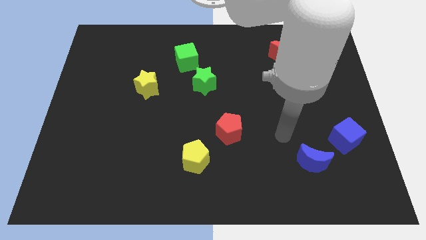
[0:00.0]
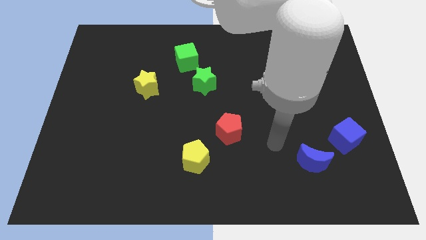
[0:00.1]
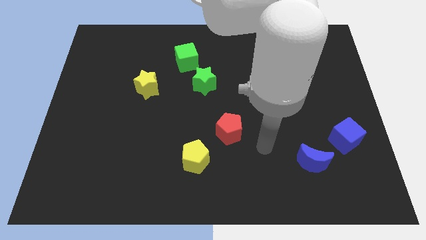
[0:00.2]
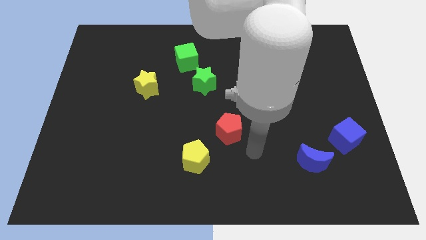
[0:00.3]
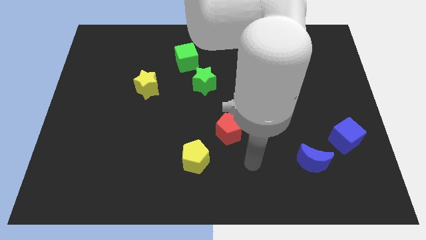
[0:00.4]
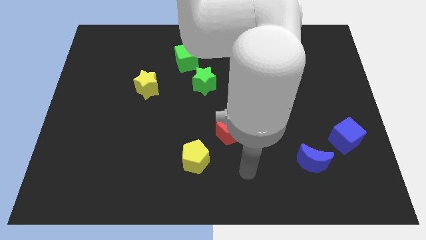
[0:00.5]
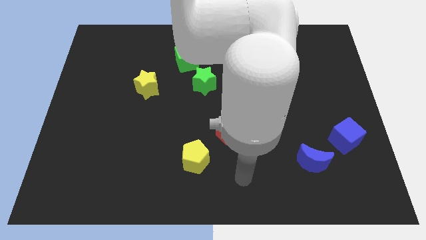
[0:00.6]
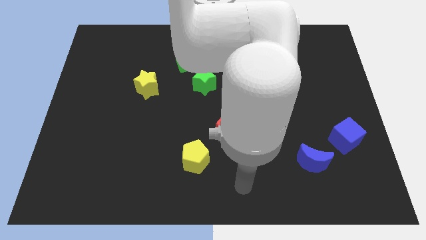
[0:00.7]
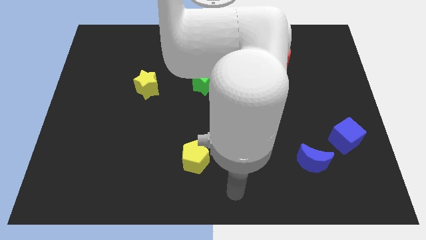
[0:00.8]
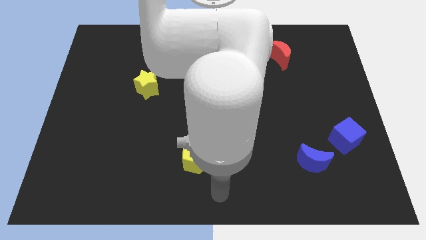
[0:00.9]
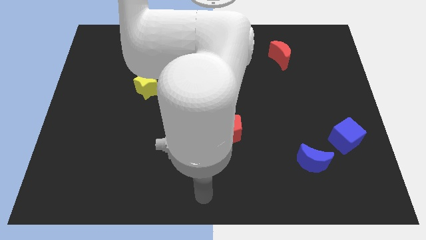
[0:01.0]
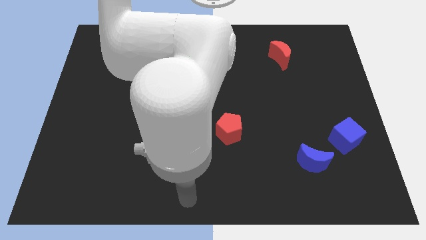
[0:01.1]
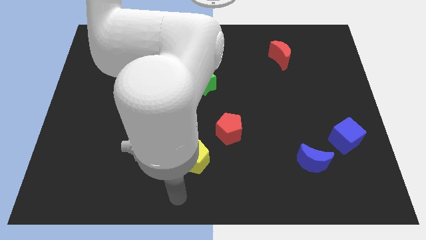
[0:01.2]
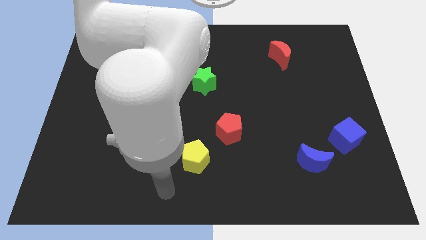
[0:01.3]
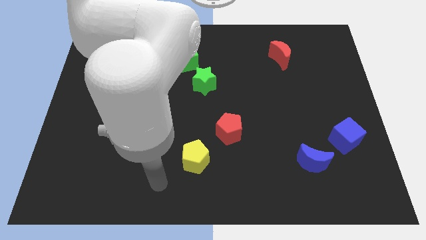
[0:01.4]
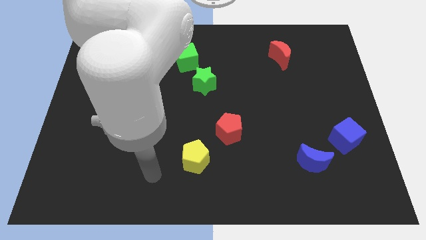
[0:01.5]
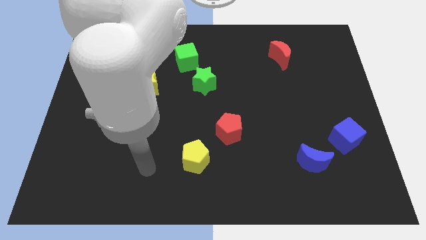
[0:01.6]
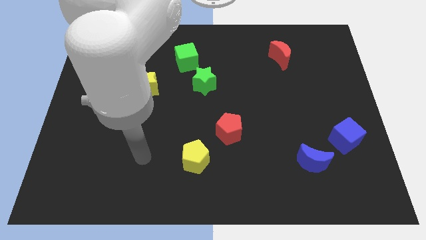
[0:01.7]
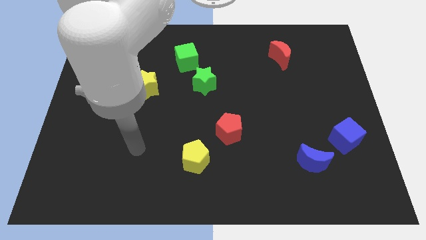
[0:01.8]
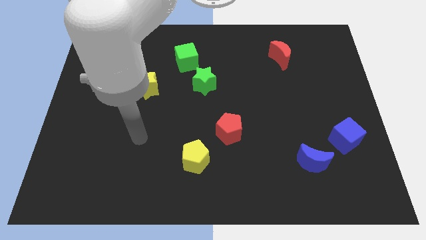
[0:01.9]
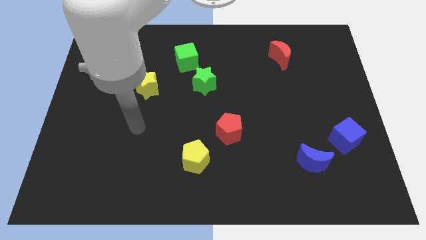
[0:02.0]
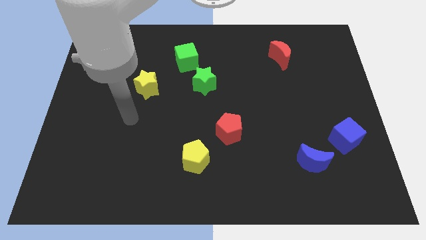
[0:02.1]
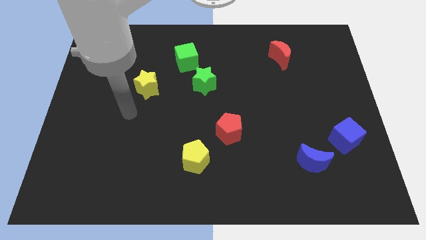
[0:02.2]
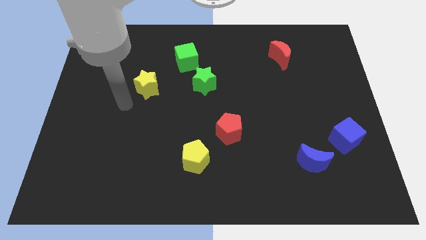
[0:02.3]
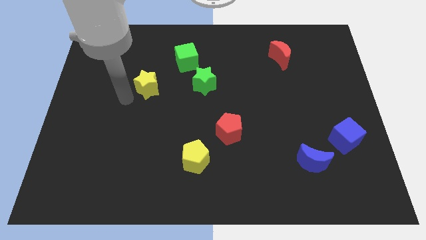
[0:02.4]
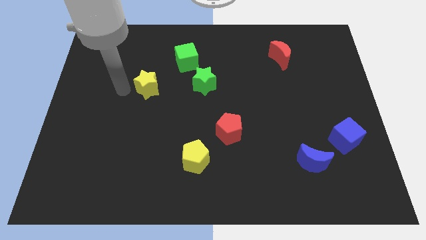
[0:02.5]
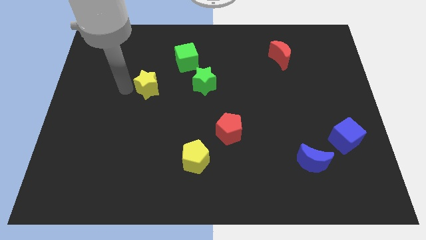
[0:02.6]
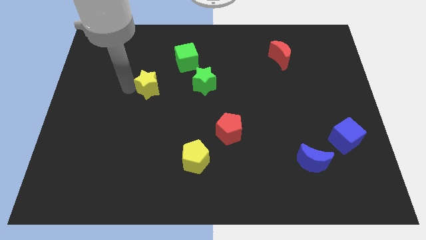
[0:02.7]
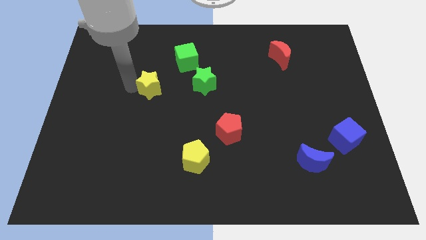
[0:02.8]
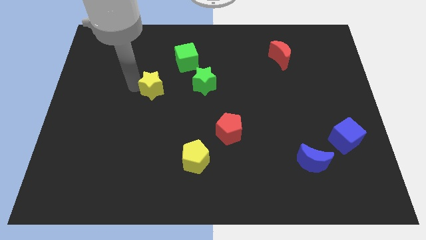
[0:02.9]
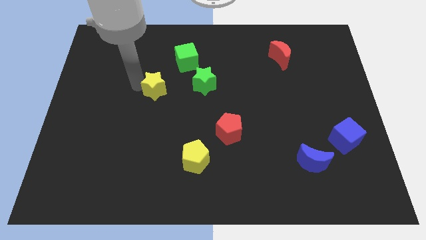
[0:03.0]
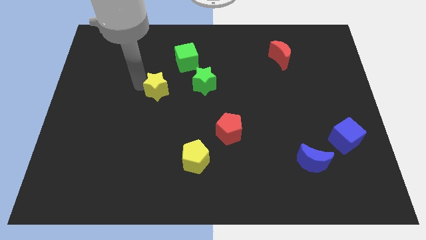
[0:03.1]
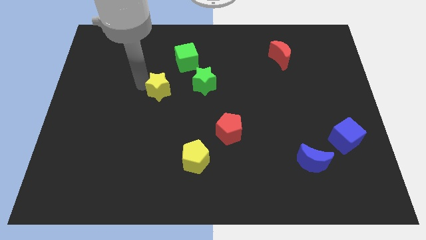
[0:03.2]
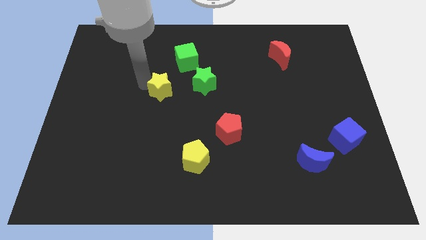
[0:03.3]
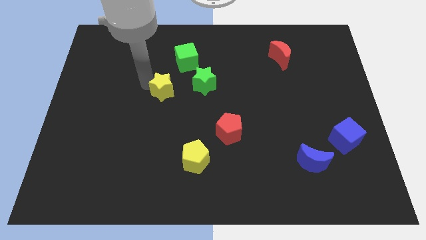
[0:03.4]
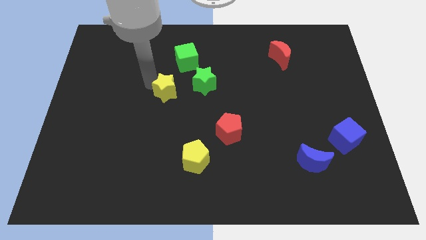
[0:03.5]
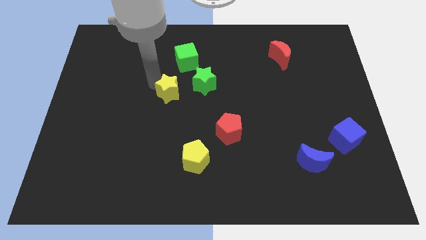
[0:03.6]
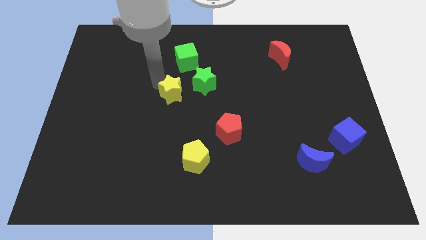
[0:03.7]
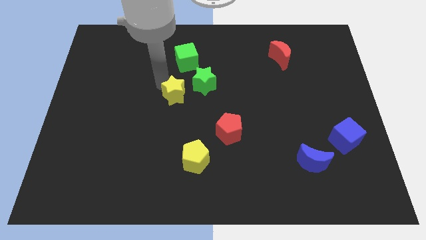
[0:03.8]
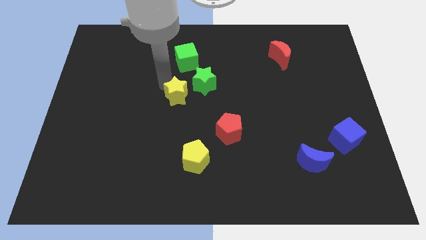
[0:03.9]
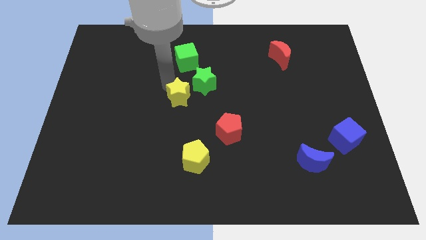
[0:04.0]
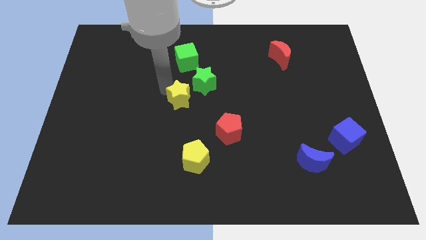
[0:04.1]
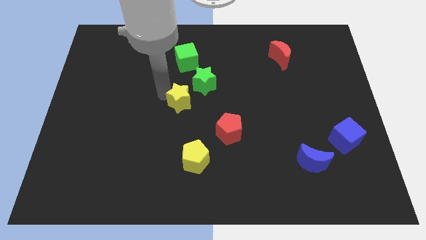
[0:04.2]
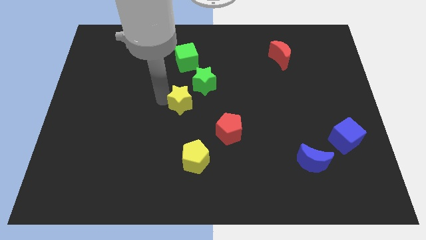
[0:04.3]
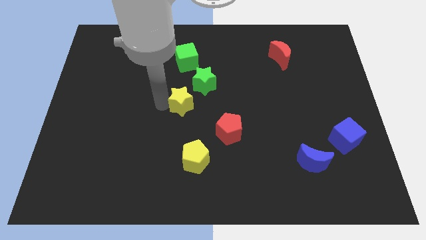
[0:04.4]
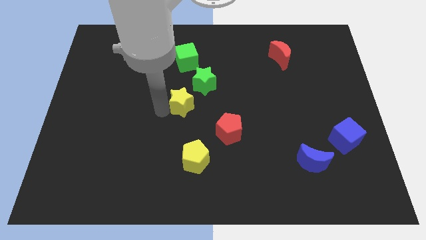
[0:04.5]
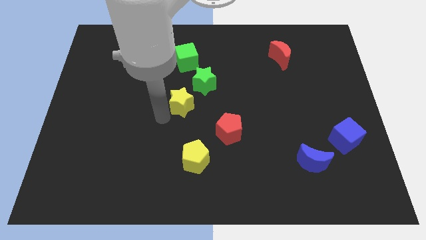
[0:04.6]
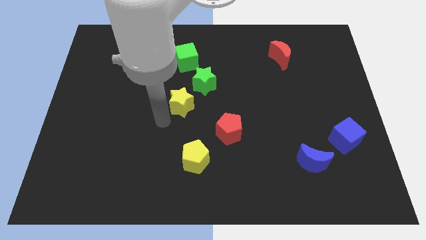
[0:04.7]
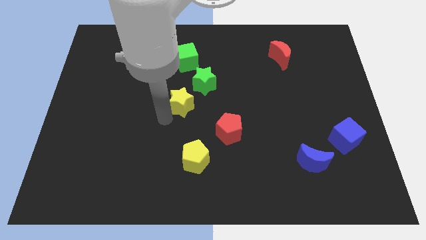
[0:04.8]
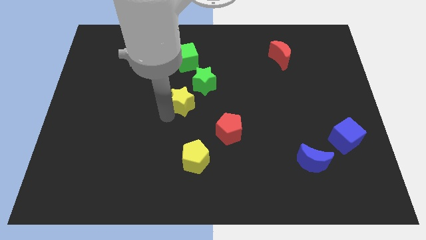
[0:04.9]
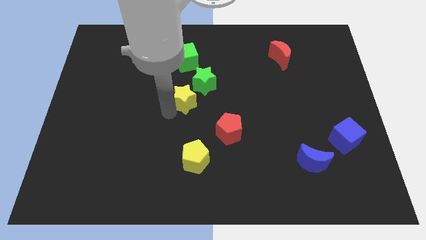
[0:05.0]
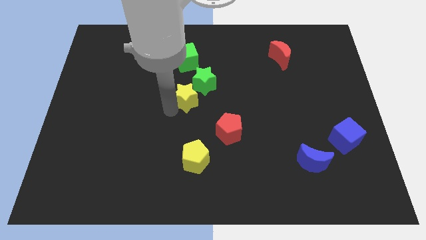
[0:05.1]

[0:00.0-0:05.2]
slide the yellow star towards the green star

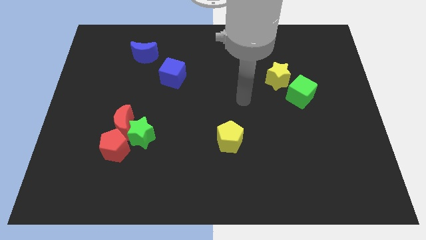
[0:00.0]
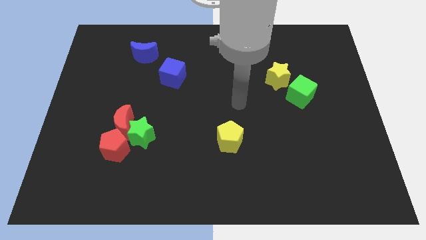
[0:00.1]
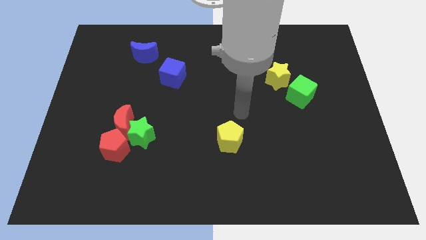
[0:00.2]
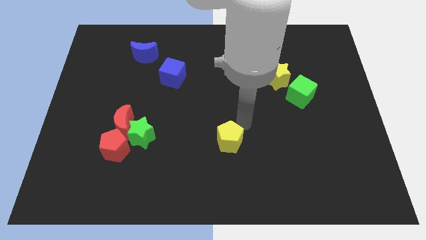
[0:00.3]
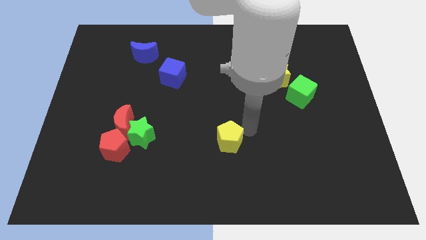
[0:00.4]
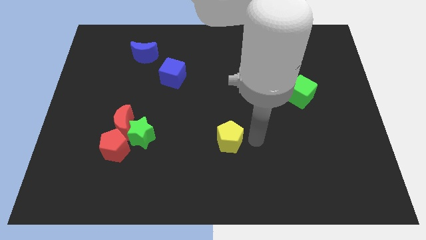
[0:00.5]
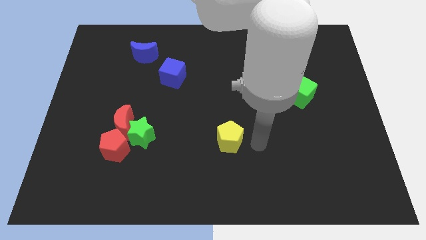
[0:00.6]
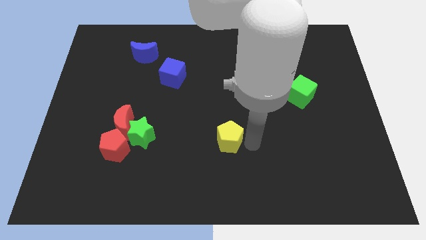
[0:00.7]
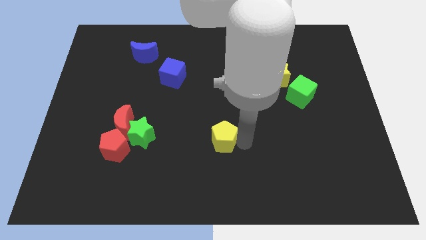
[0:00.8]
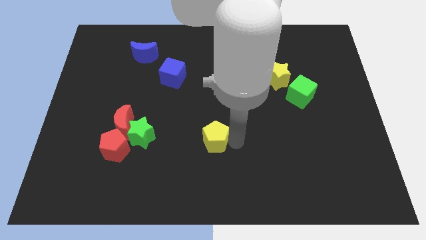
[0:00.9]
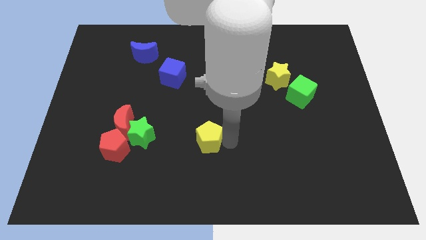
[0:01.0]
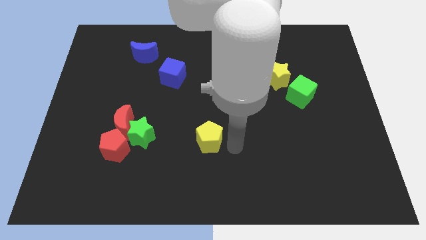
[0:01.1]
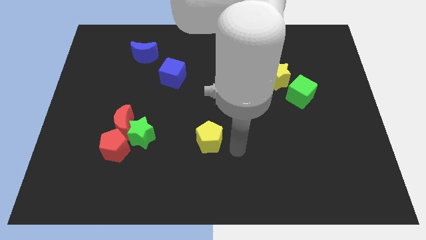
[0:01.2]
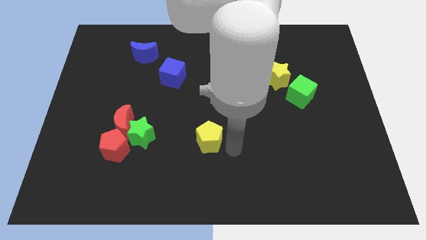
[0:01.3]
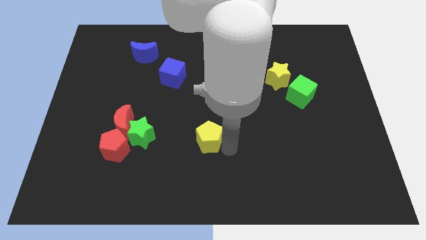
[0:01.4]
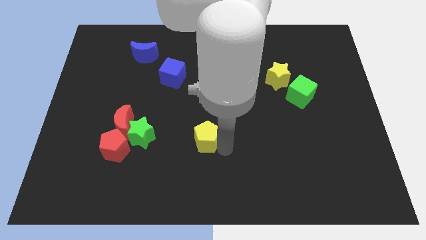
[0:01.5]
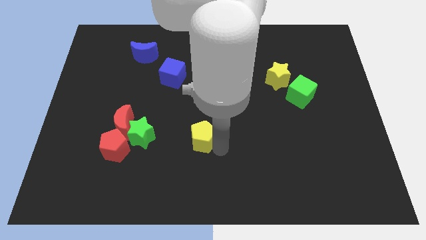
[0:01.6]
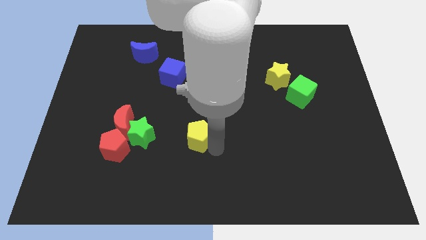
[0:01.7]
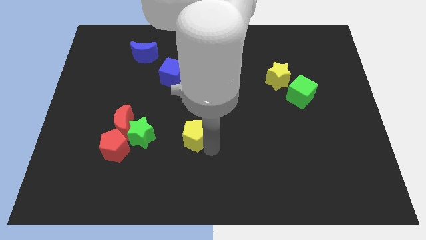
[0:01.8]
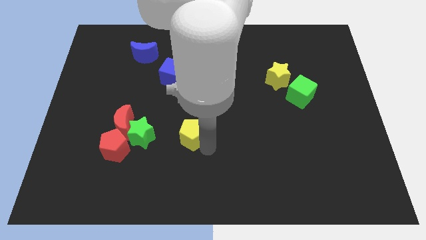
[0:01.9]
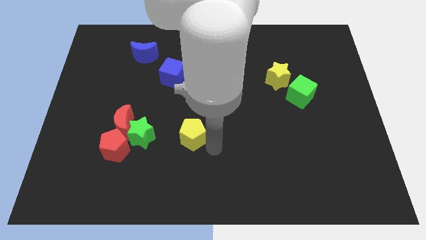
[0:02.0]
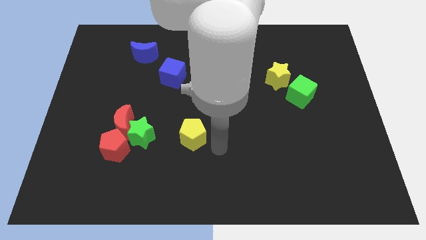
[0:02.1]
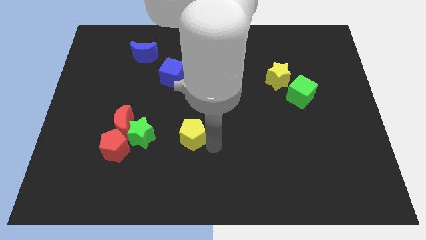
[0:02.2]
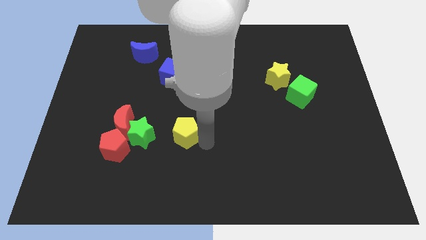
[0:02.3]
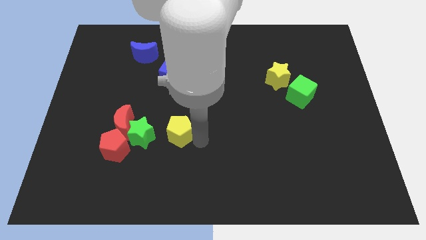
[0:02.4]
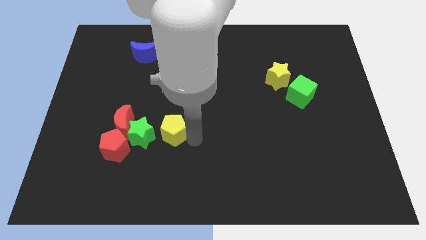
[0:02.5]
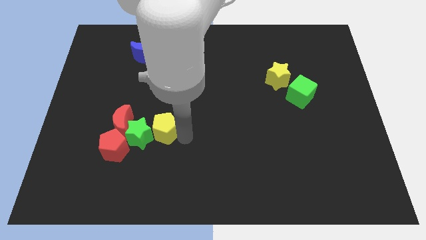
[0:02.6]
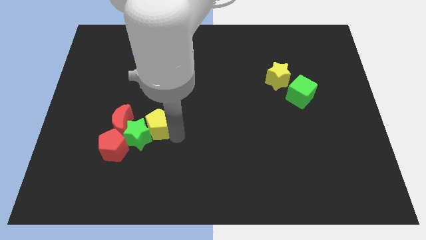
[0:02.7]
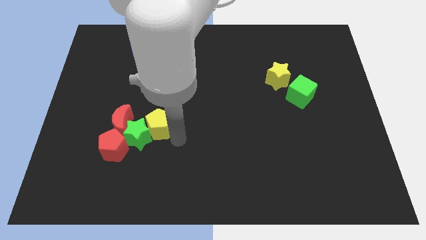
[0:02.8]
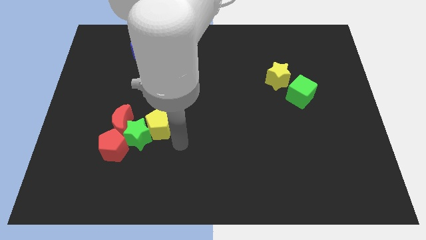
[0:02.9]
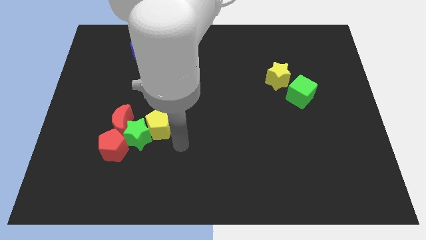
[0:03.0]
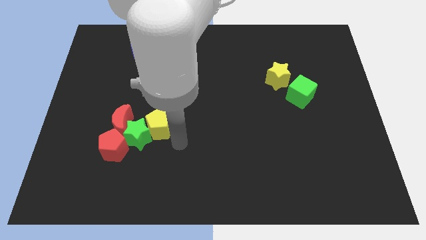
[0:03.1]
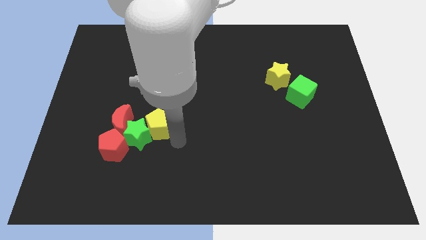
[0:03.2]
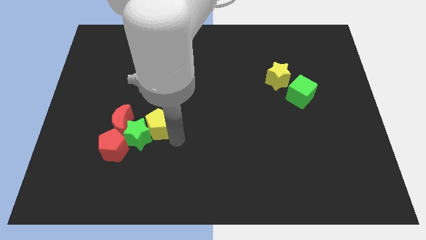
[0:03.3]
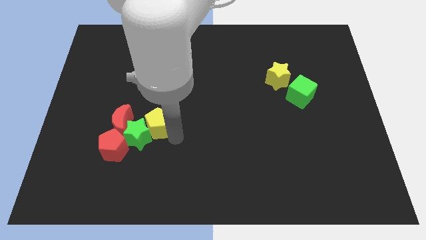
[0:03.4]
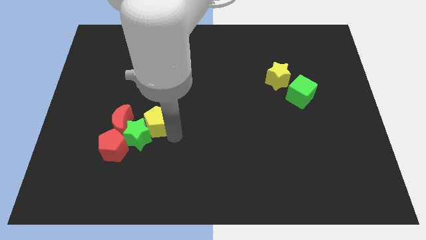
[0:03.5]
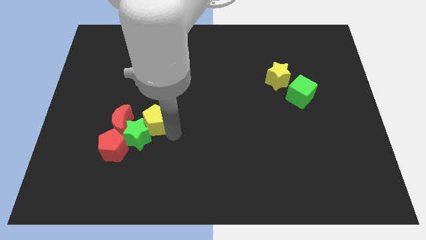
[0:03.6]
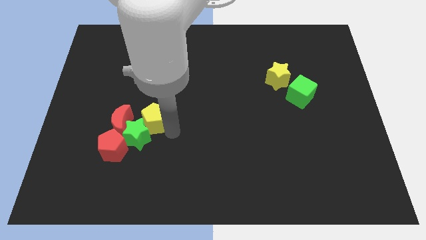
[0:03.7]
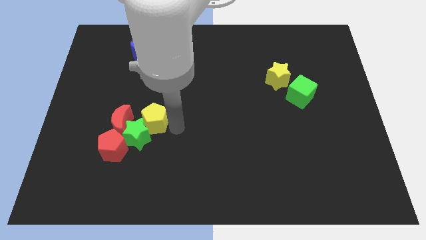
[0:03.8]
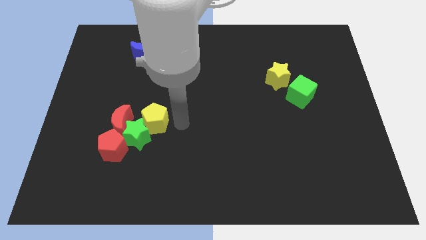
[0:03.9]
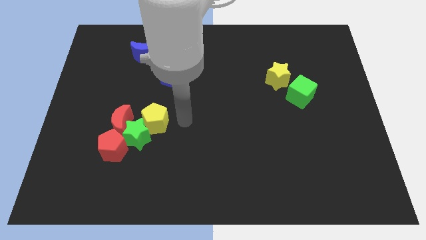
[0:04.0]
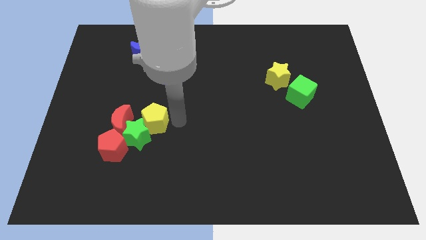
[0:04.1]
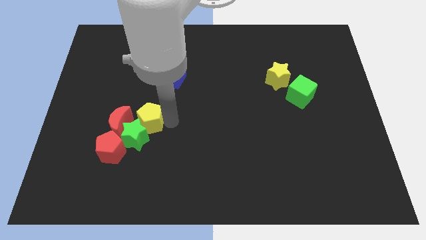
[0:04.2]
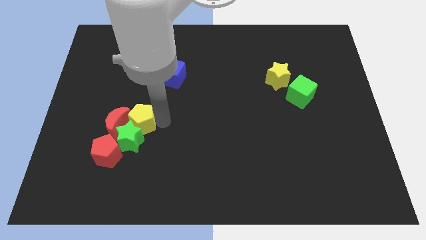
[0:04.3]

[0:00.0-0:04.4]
slide the yellow pentagon towards the red moon
